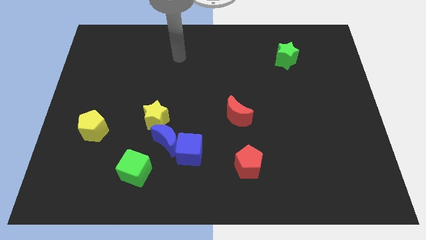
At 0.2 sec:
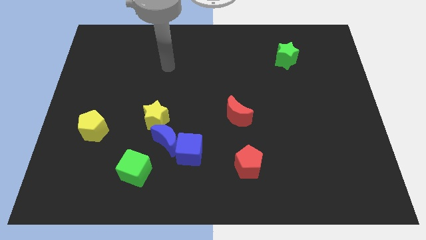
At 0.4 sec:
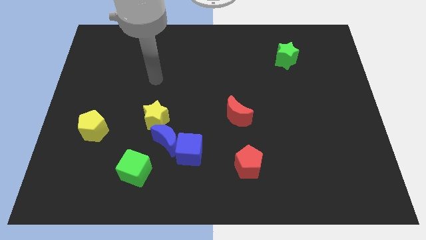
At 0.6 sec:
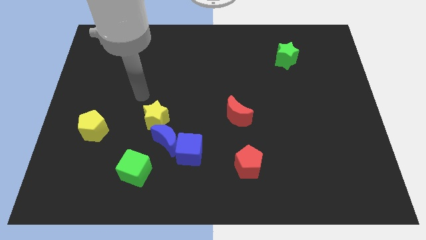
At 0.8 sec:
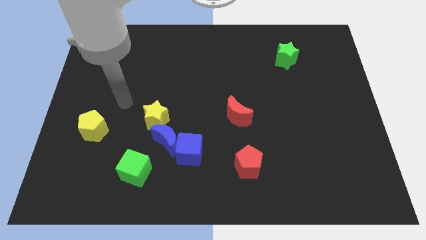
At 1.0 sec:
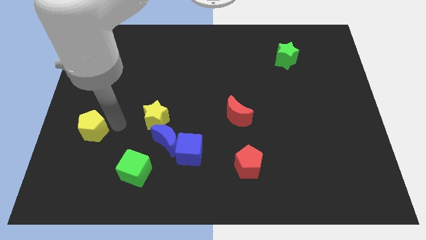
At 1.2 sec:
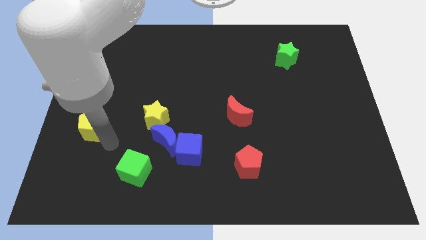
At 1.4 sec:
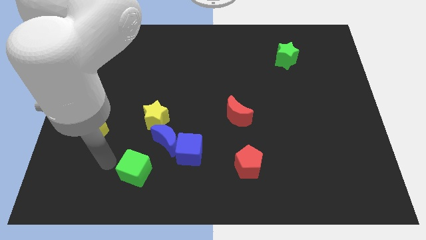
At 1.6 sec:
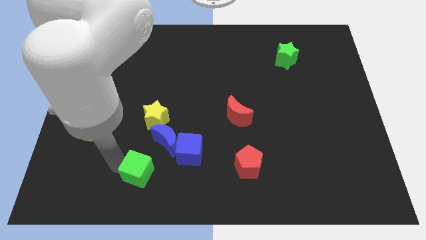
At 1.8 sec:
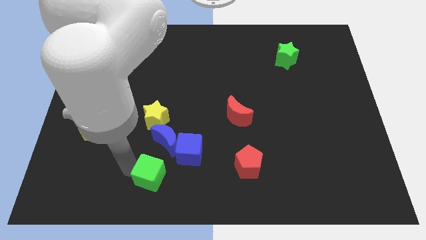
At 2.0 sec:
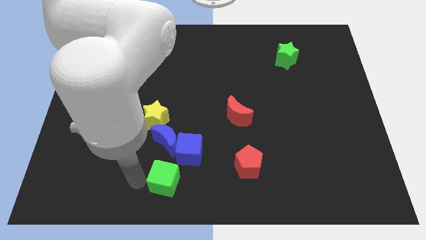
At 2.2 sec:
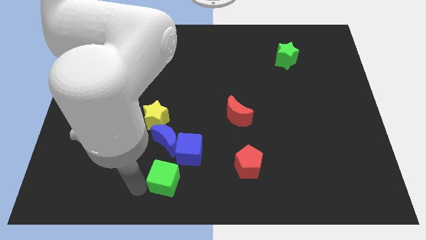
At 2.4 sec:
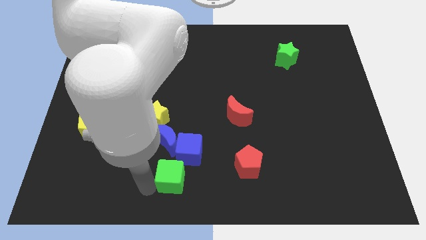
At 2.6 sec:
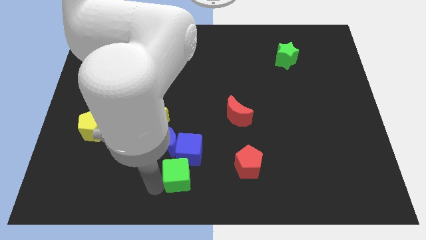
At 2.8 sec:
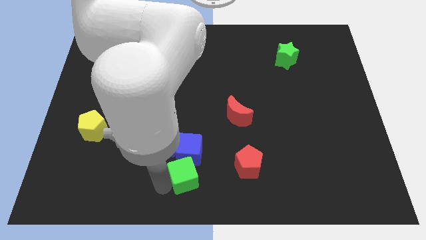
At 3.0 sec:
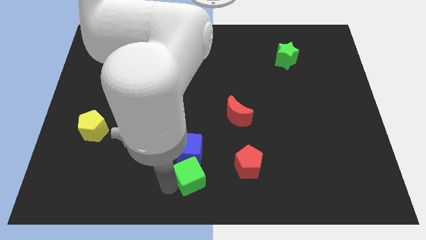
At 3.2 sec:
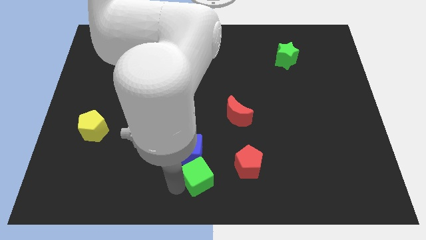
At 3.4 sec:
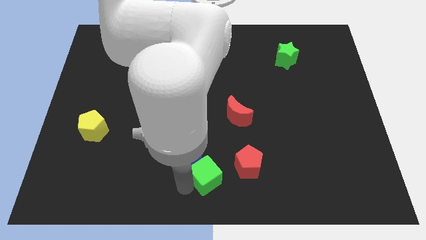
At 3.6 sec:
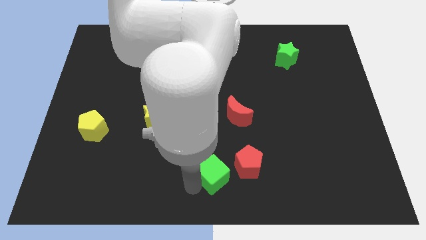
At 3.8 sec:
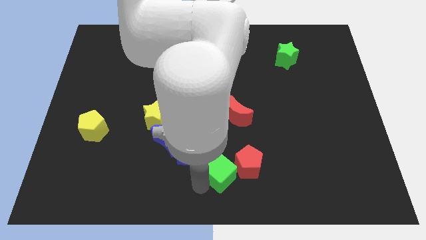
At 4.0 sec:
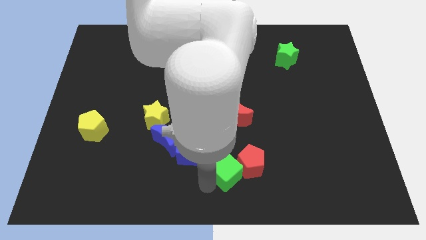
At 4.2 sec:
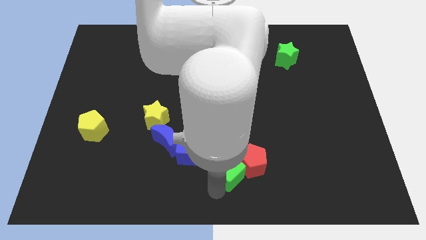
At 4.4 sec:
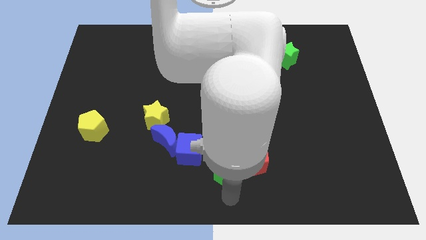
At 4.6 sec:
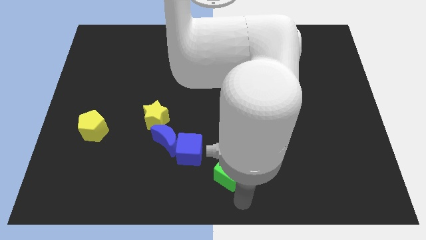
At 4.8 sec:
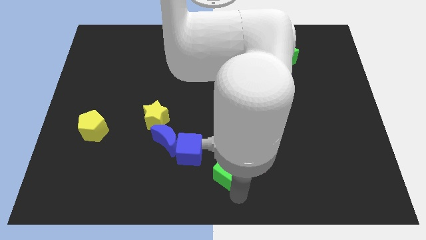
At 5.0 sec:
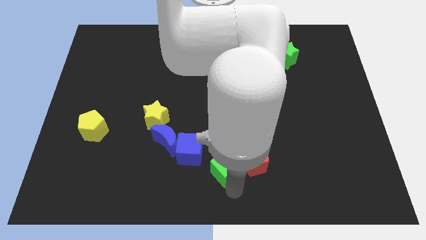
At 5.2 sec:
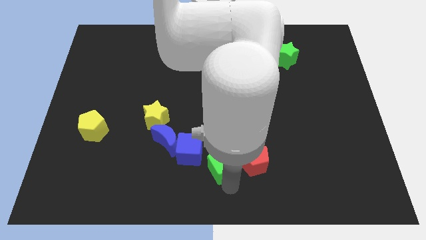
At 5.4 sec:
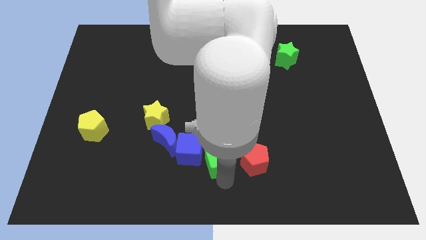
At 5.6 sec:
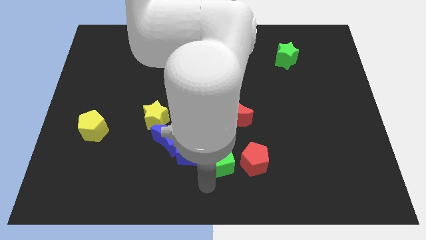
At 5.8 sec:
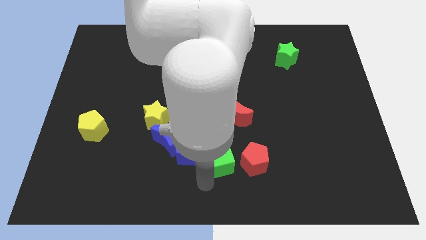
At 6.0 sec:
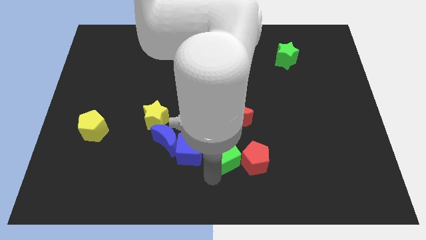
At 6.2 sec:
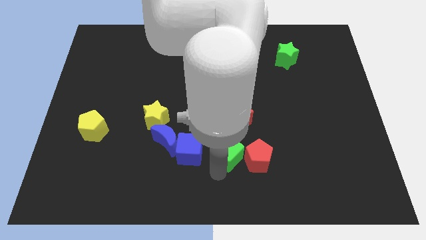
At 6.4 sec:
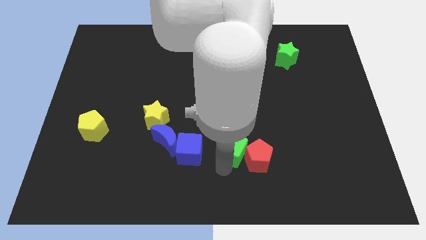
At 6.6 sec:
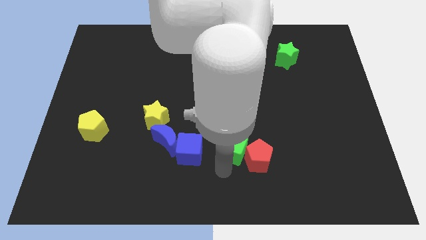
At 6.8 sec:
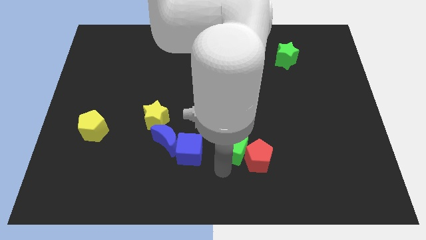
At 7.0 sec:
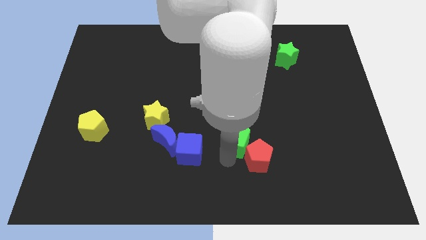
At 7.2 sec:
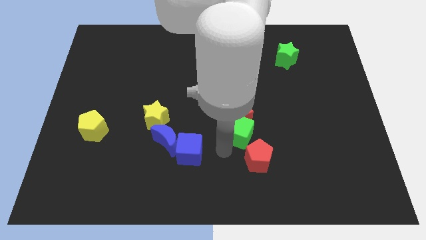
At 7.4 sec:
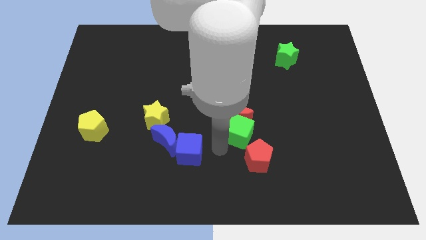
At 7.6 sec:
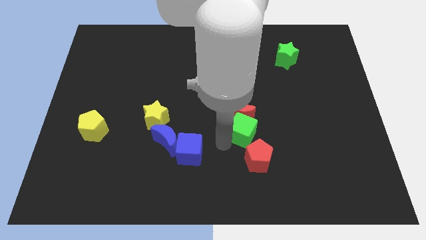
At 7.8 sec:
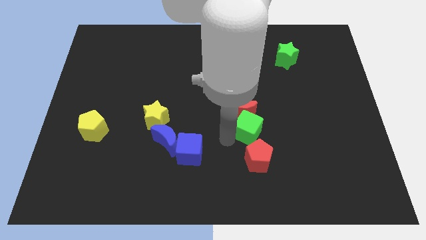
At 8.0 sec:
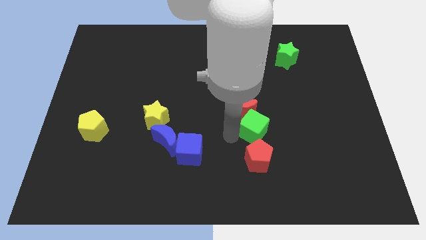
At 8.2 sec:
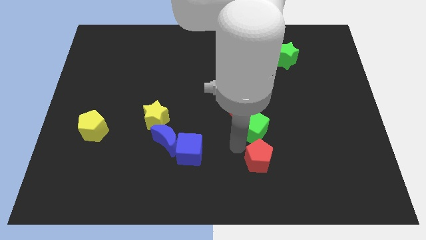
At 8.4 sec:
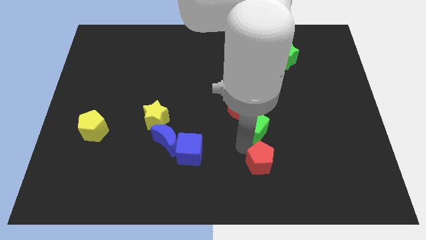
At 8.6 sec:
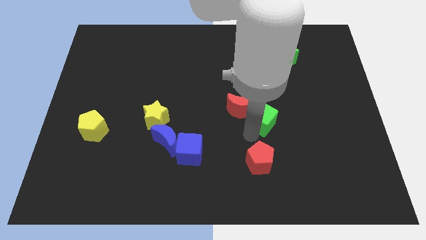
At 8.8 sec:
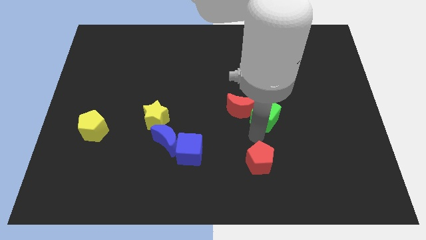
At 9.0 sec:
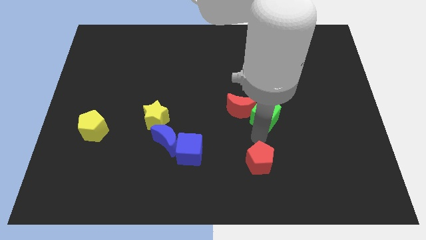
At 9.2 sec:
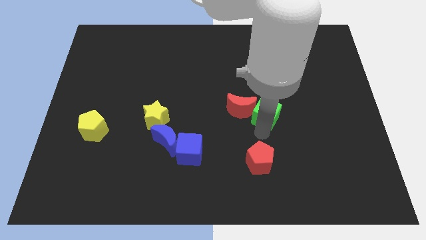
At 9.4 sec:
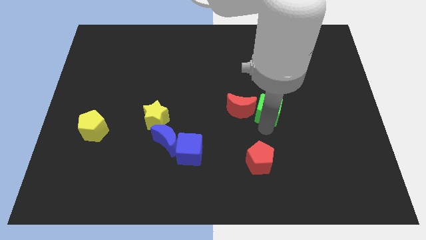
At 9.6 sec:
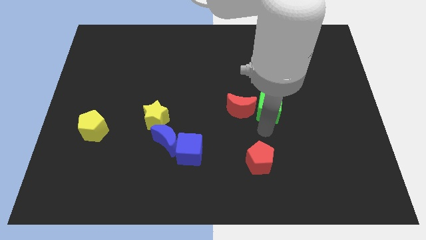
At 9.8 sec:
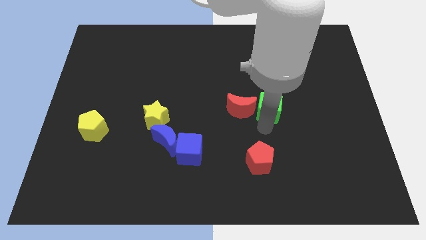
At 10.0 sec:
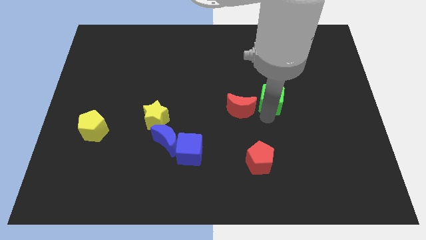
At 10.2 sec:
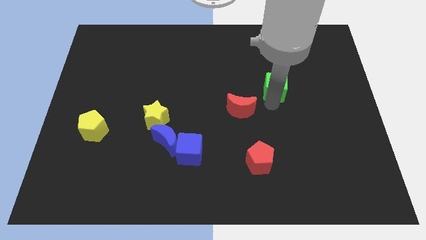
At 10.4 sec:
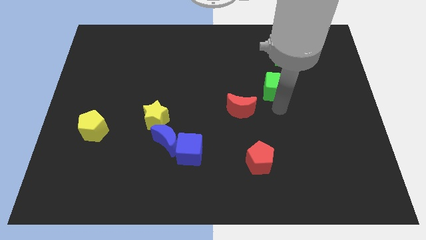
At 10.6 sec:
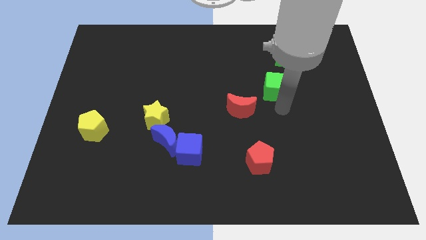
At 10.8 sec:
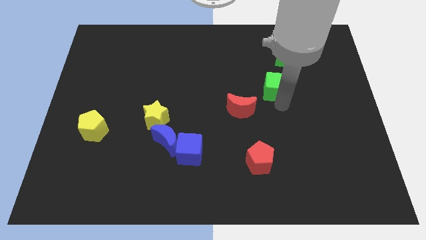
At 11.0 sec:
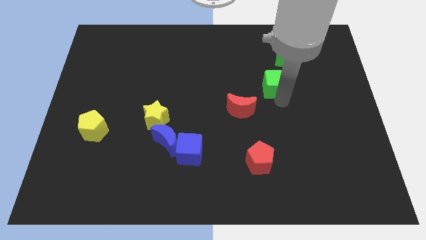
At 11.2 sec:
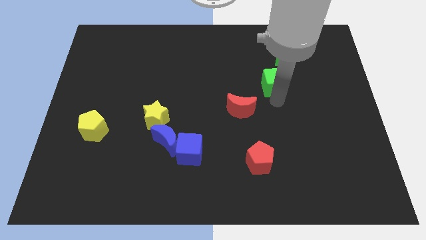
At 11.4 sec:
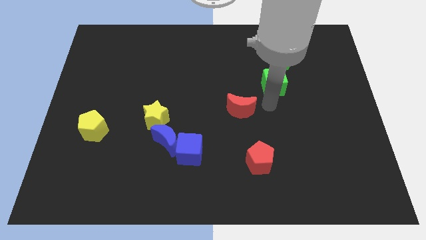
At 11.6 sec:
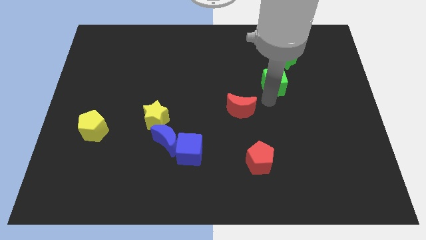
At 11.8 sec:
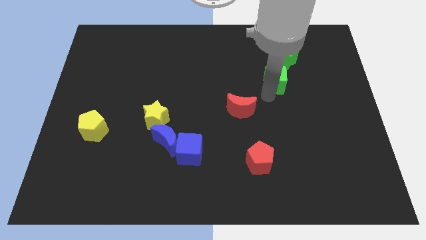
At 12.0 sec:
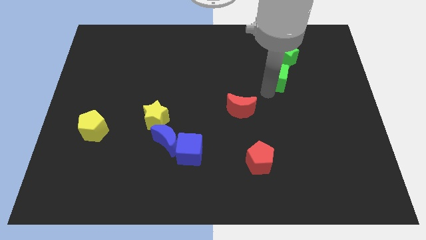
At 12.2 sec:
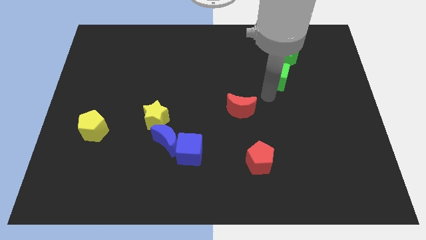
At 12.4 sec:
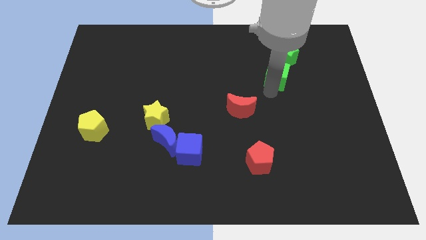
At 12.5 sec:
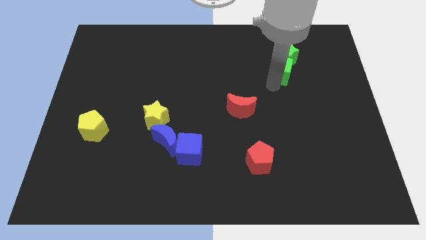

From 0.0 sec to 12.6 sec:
slide the green cube close to the green star

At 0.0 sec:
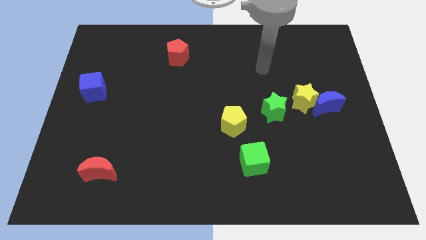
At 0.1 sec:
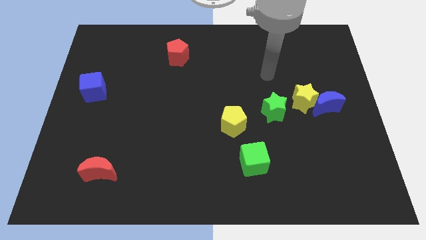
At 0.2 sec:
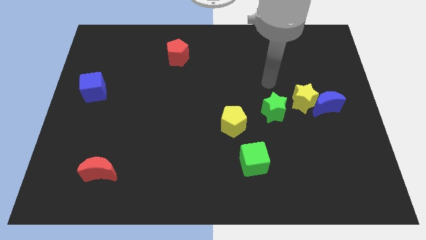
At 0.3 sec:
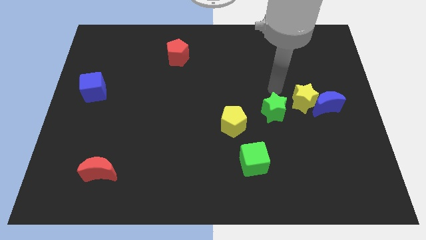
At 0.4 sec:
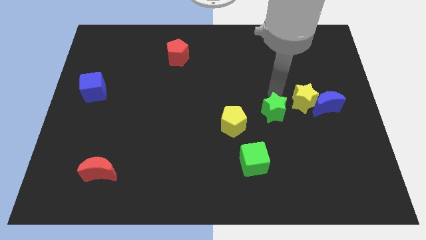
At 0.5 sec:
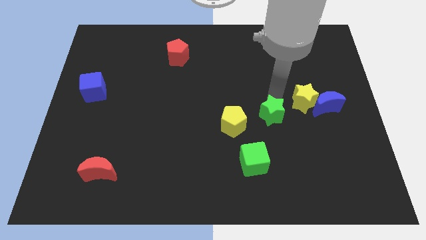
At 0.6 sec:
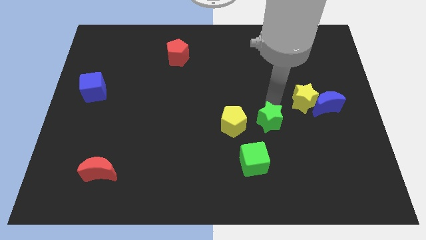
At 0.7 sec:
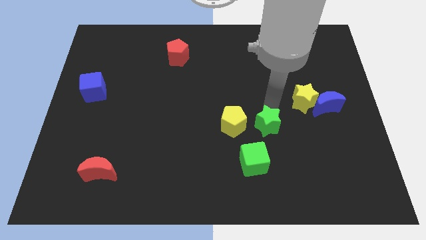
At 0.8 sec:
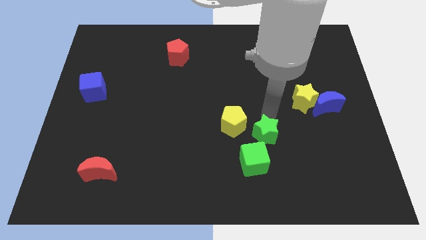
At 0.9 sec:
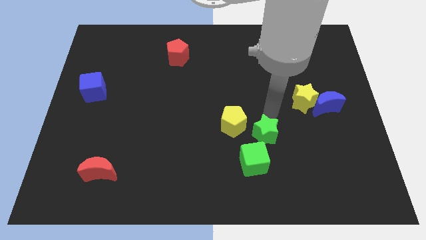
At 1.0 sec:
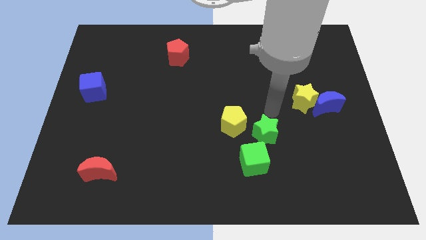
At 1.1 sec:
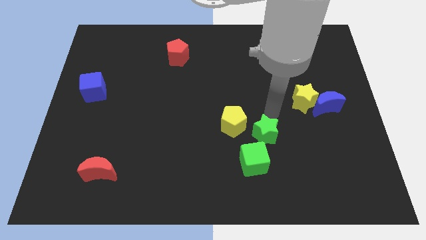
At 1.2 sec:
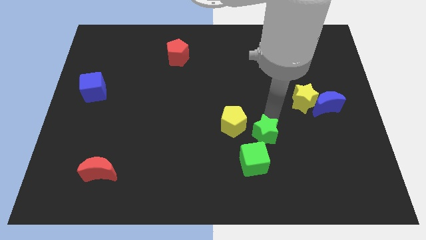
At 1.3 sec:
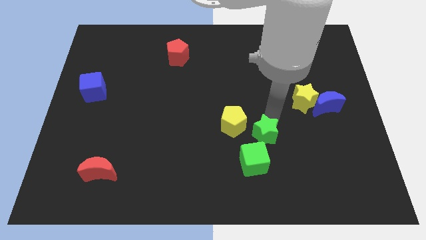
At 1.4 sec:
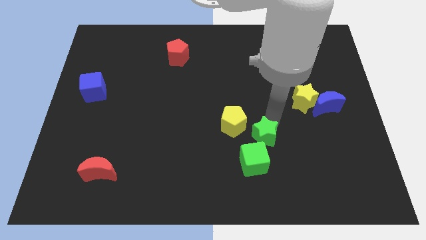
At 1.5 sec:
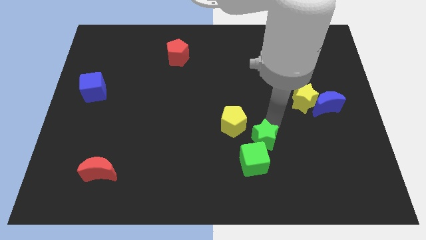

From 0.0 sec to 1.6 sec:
push the green star towards the green cube
